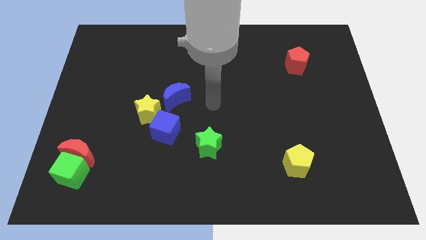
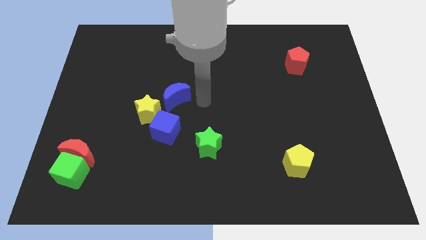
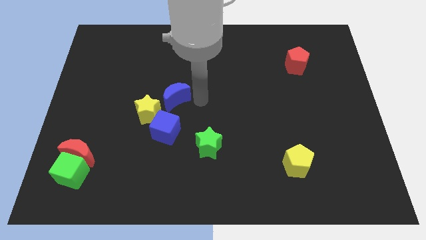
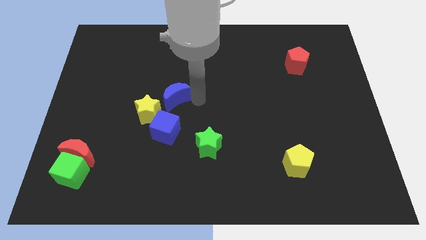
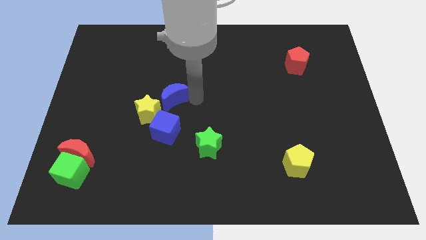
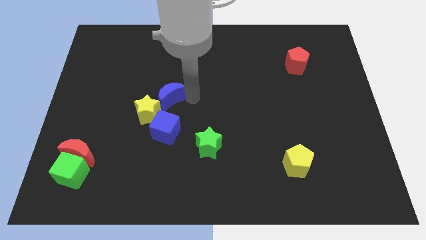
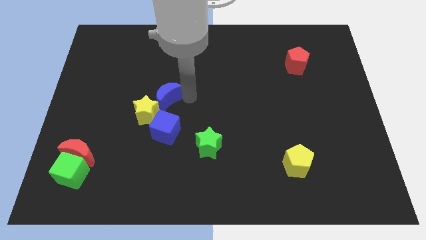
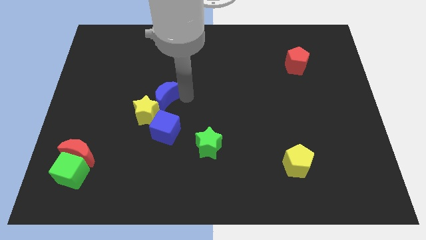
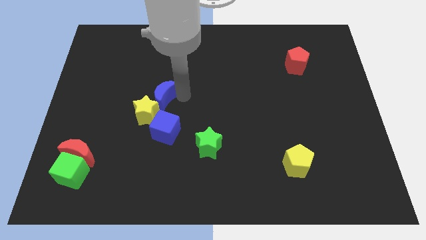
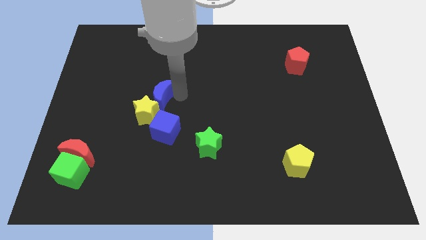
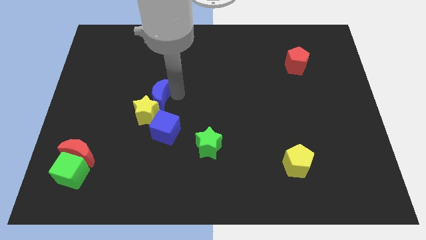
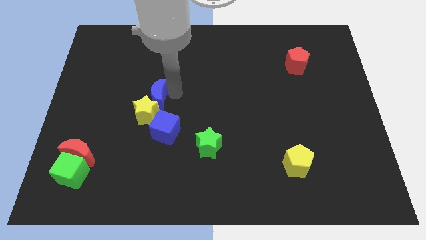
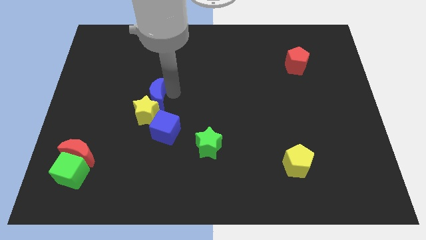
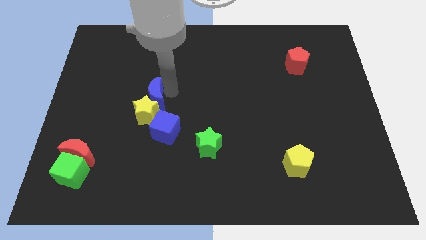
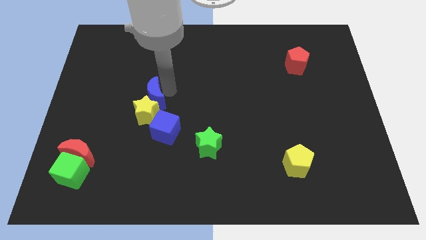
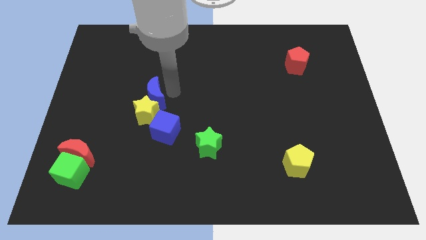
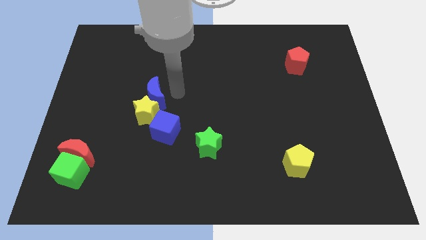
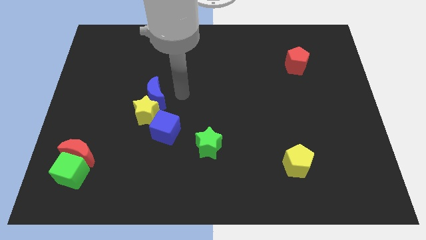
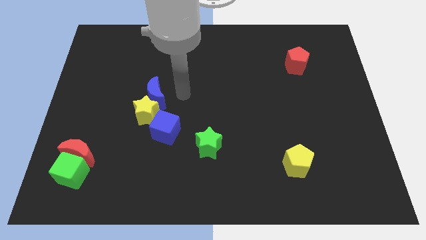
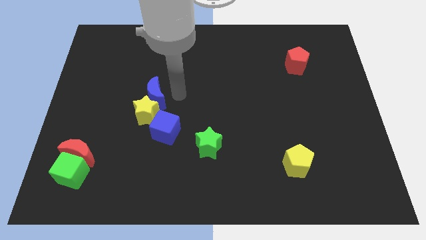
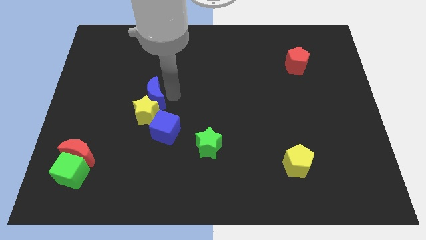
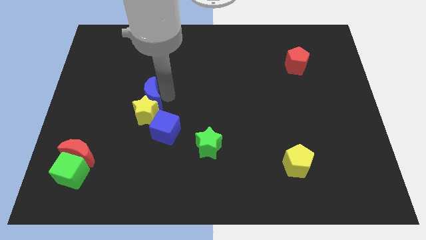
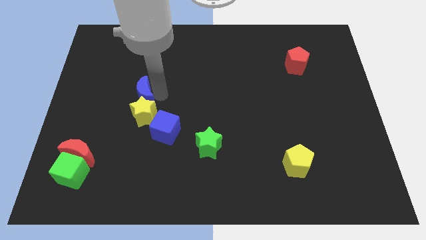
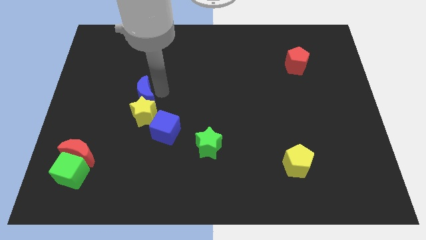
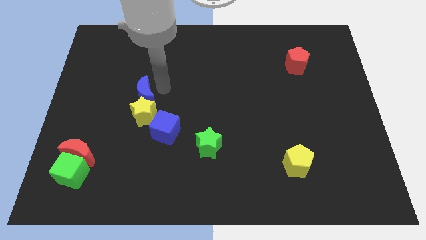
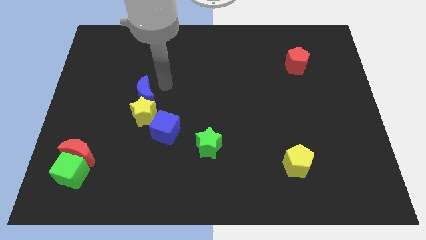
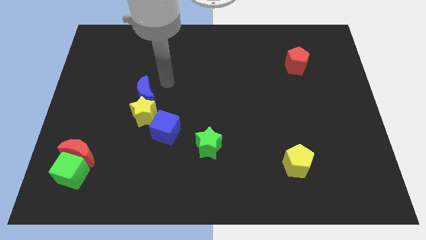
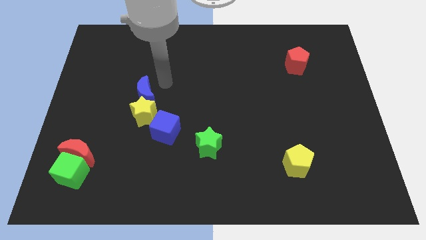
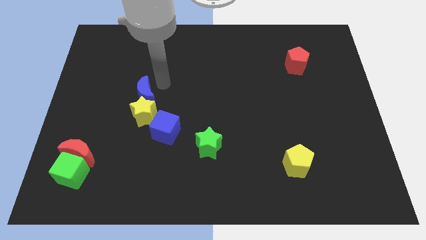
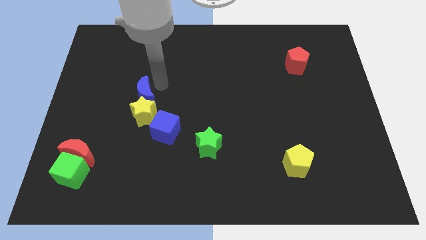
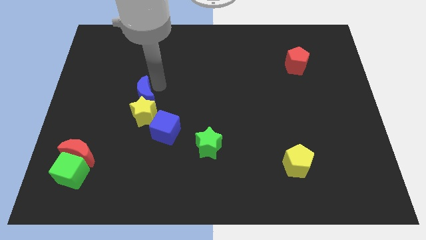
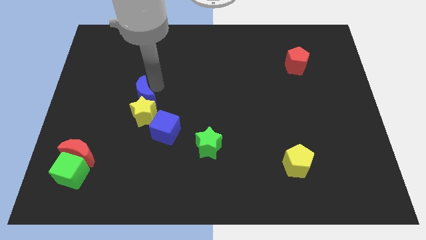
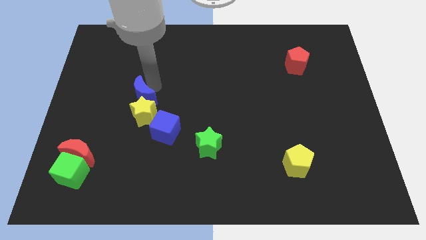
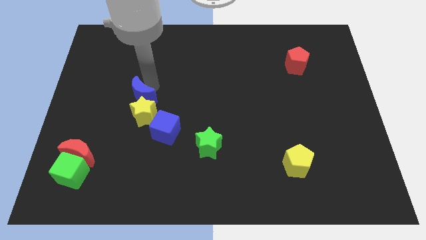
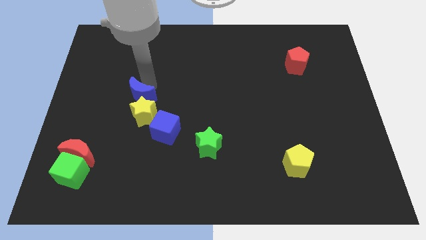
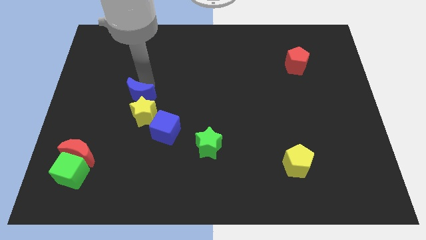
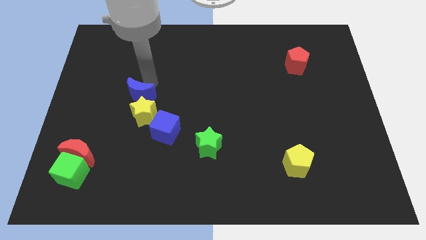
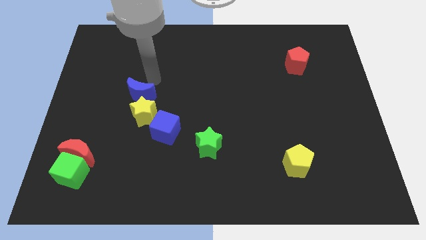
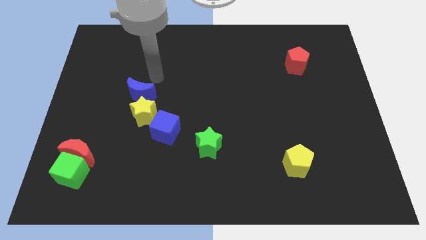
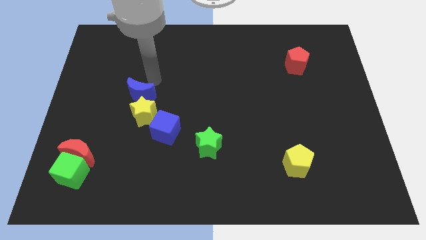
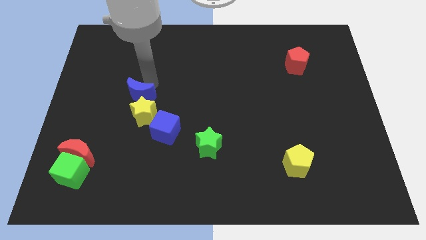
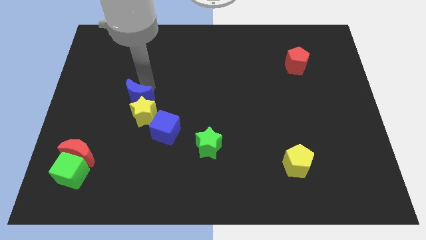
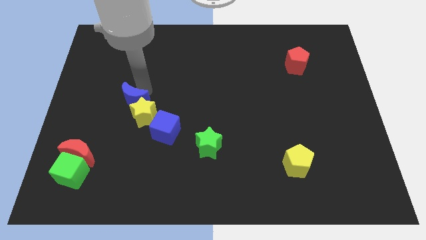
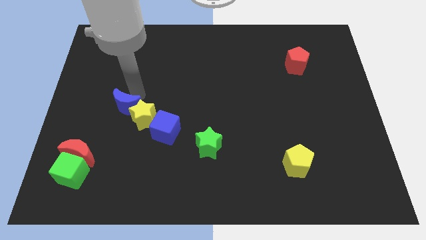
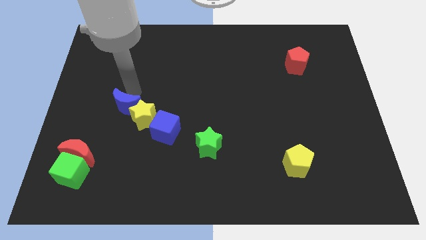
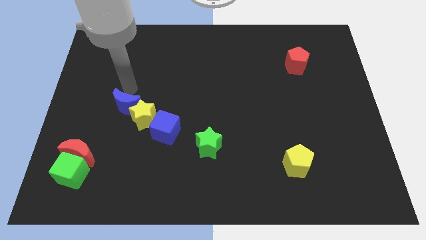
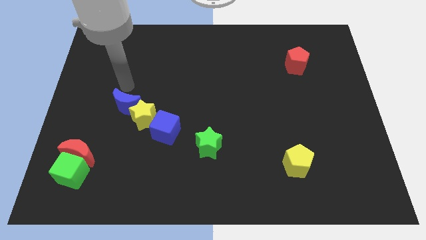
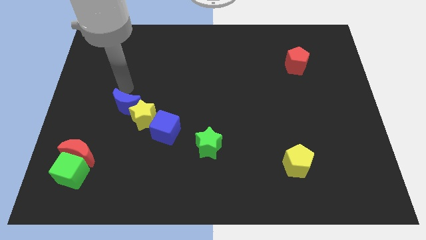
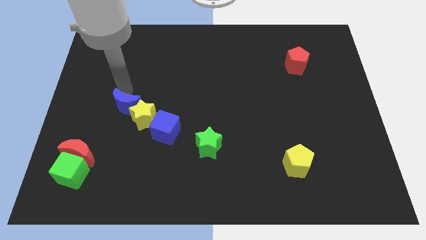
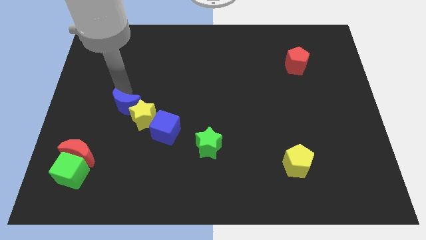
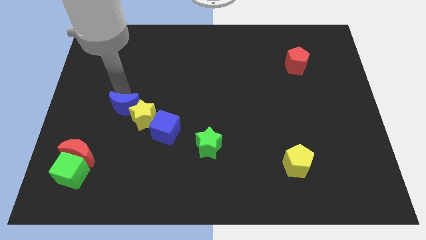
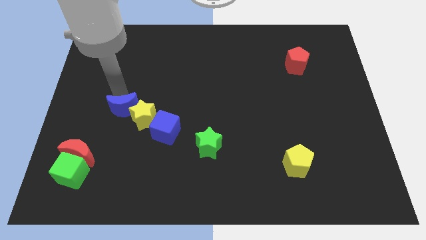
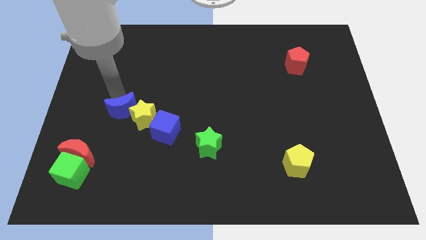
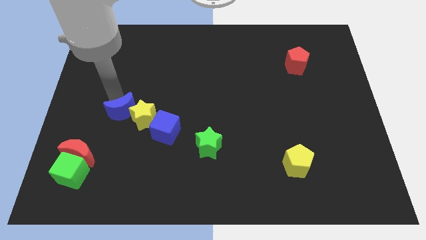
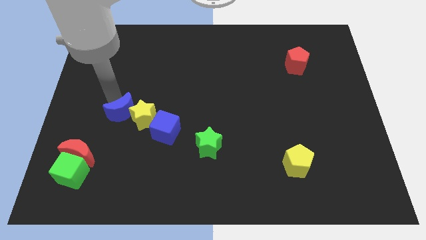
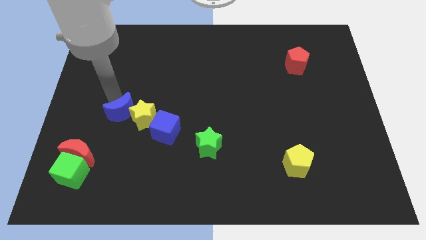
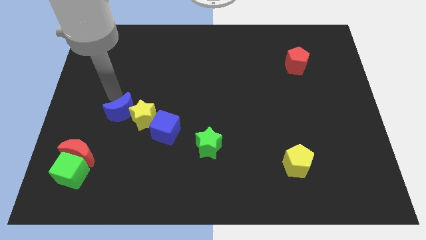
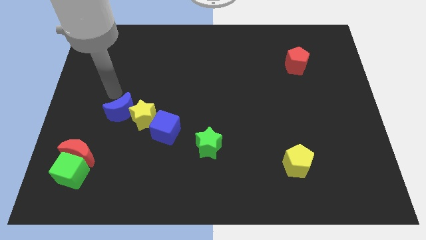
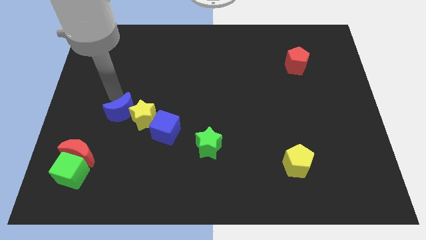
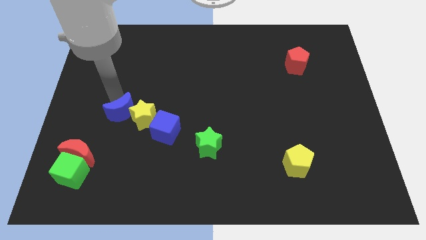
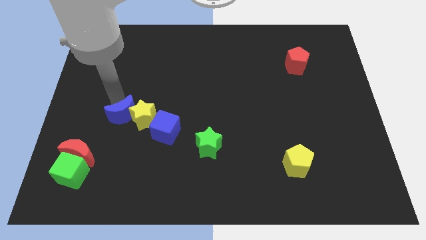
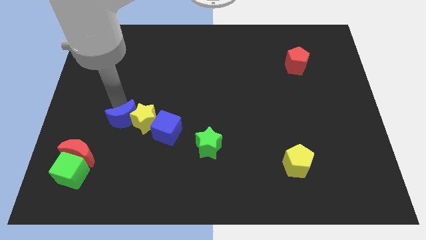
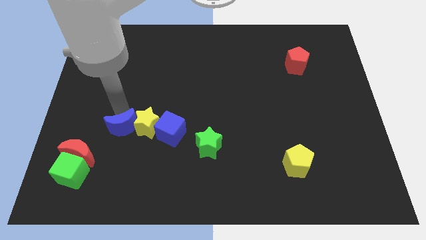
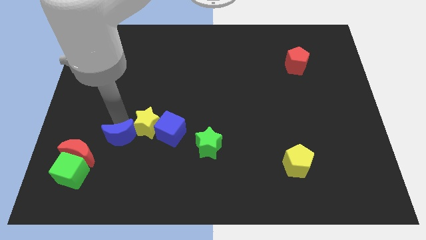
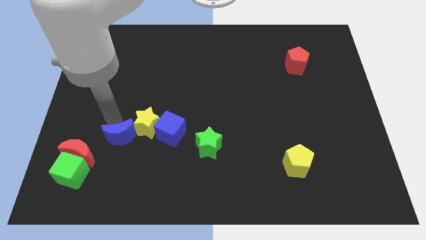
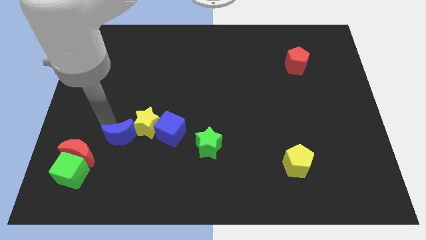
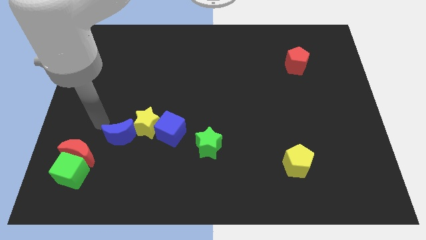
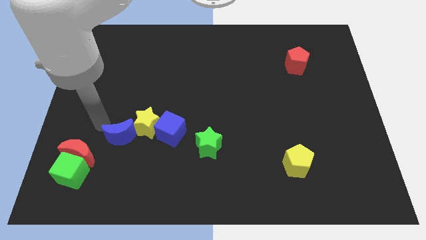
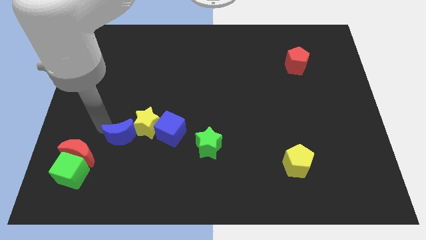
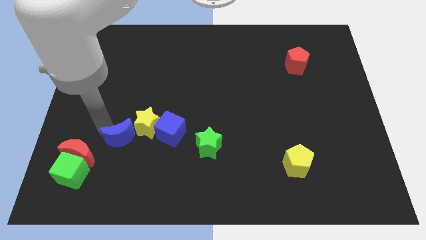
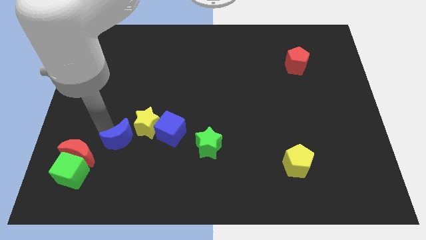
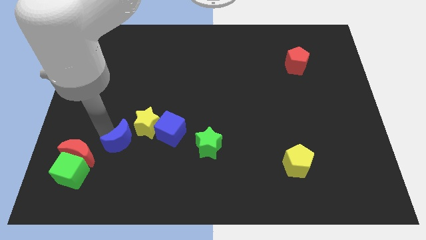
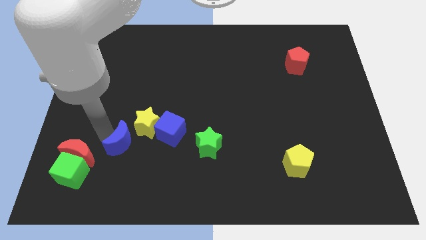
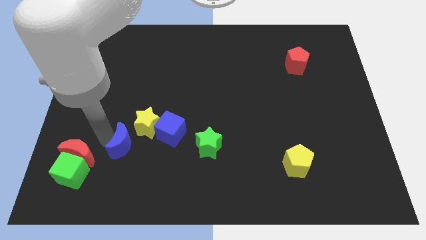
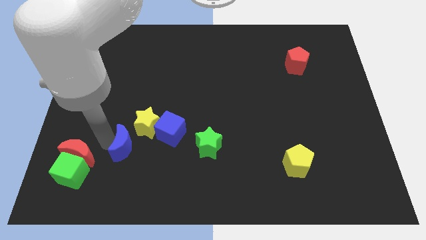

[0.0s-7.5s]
move the blue moon to the bottom left of the blue cube
